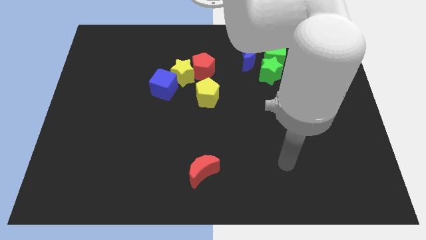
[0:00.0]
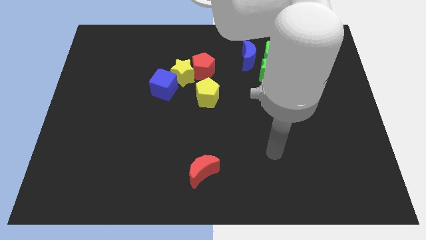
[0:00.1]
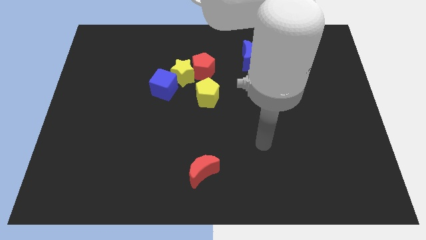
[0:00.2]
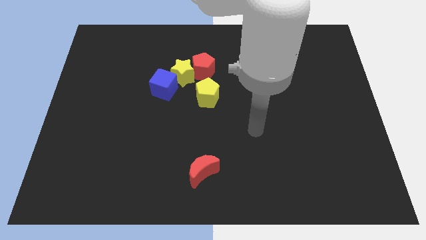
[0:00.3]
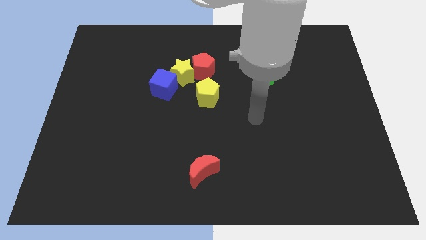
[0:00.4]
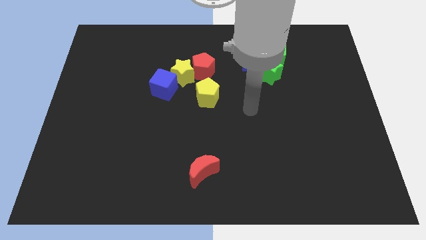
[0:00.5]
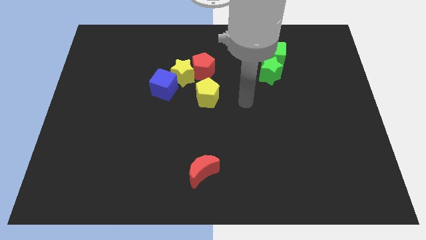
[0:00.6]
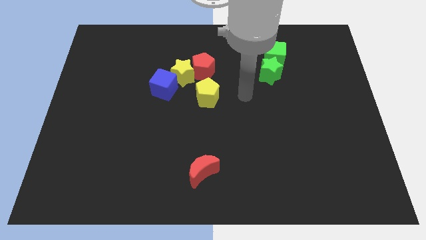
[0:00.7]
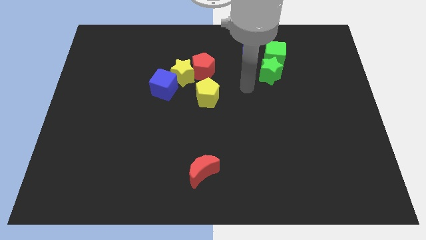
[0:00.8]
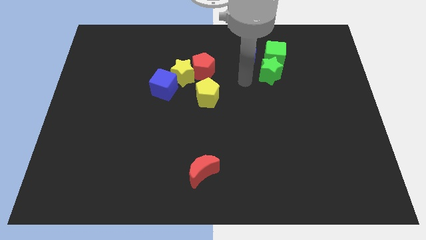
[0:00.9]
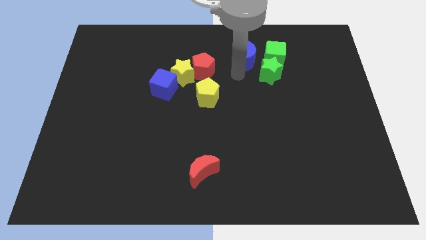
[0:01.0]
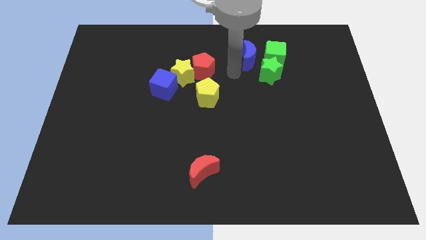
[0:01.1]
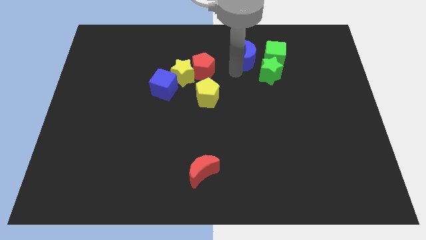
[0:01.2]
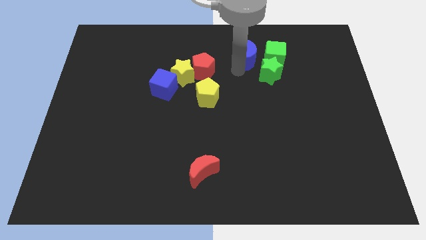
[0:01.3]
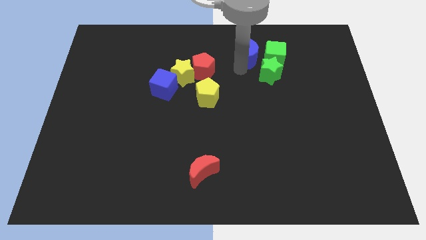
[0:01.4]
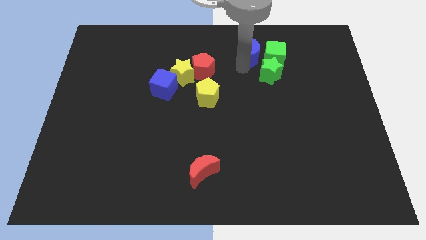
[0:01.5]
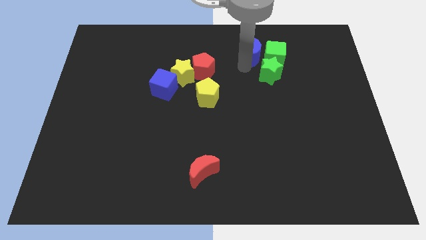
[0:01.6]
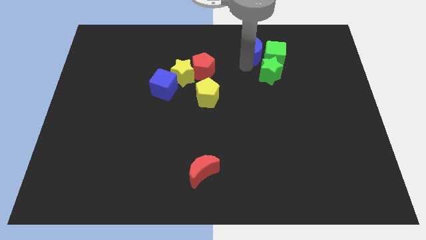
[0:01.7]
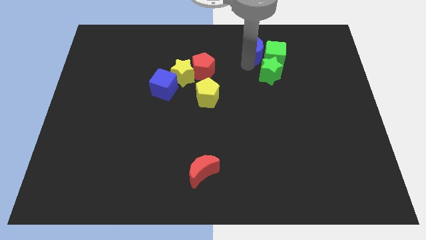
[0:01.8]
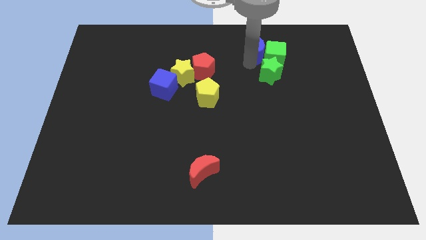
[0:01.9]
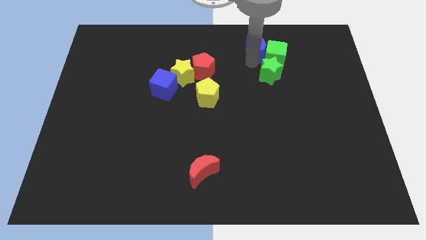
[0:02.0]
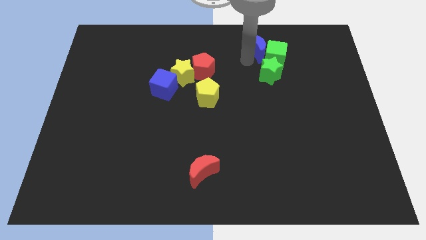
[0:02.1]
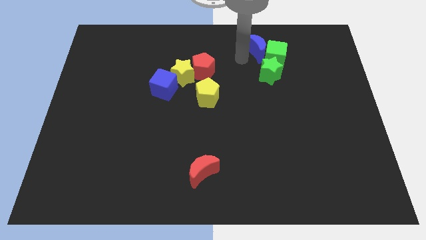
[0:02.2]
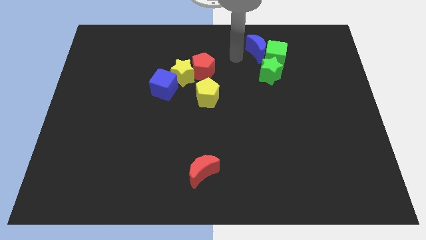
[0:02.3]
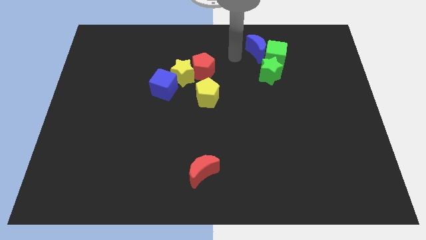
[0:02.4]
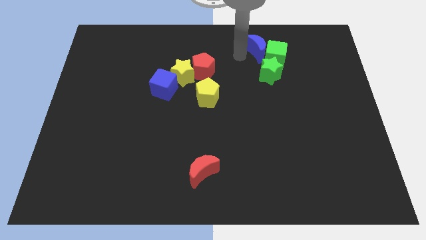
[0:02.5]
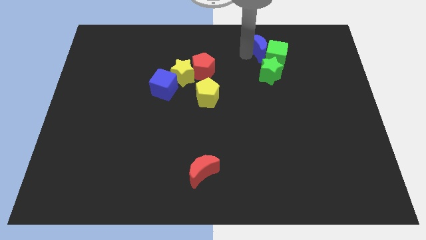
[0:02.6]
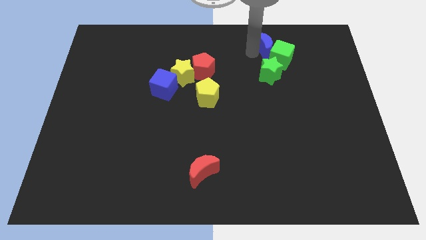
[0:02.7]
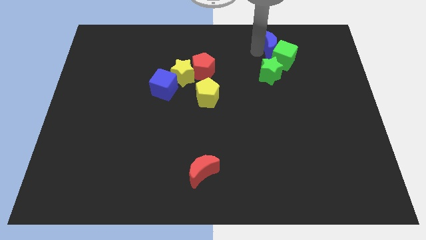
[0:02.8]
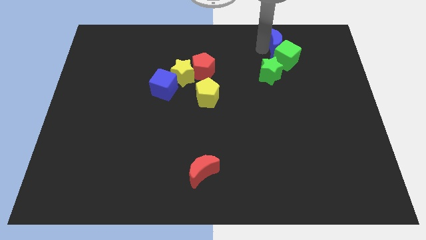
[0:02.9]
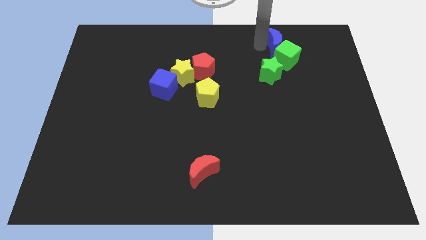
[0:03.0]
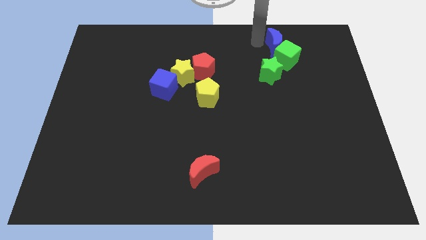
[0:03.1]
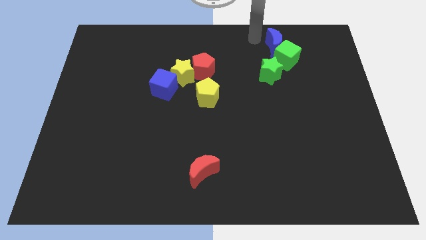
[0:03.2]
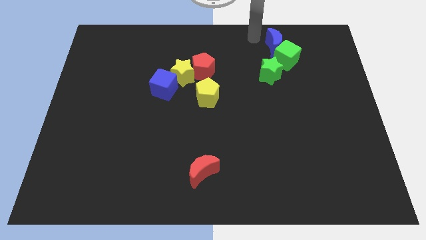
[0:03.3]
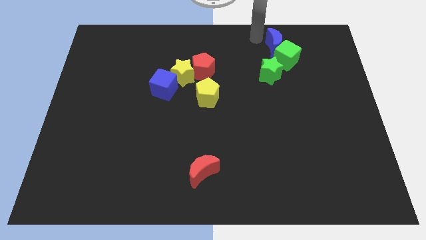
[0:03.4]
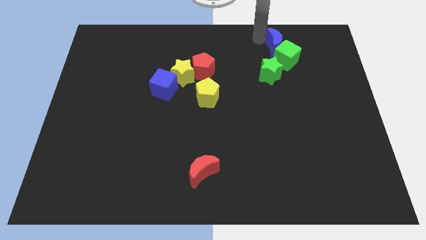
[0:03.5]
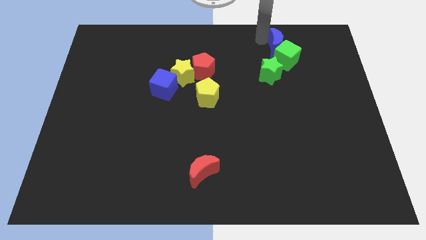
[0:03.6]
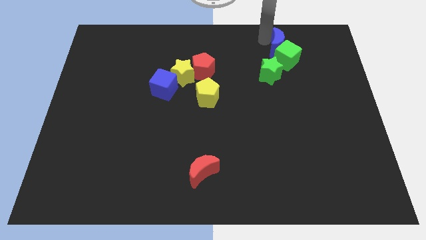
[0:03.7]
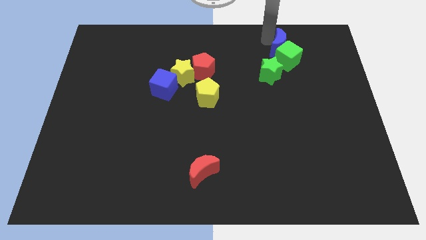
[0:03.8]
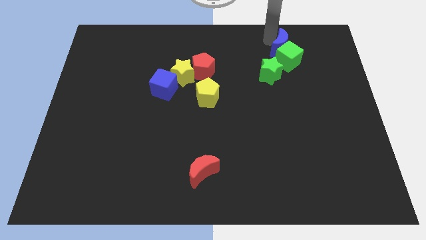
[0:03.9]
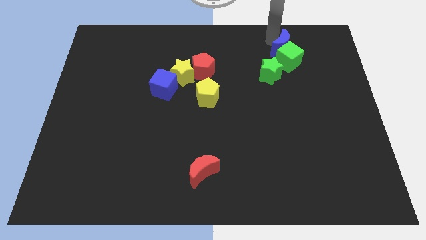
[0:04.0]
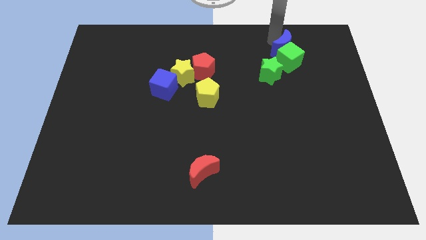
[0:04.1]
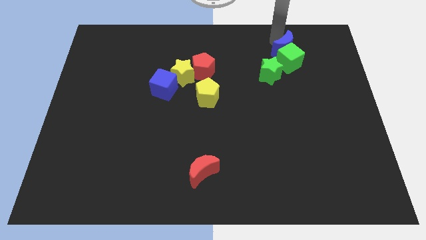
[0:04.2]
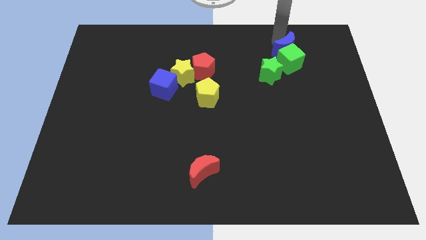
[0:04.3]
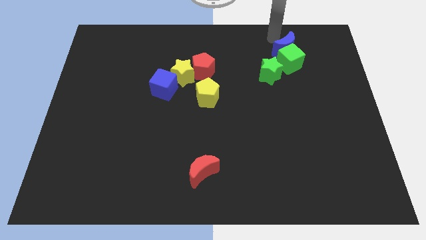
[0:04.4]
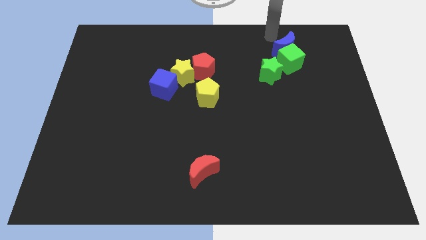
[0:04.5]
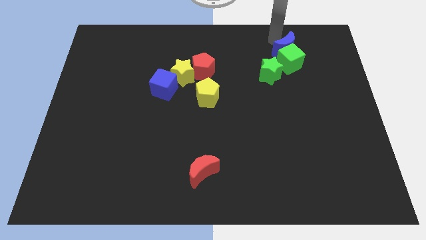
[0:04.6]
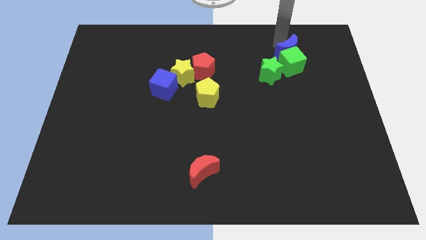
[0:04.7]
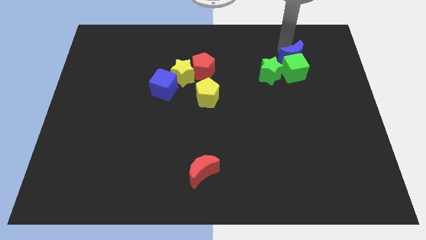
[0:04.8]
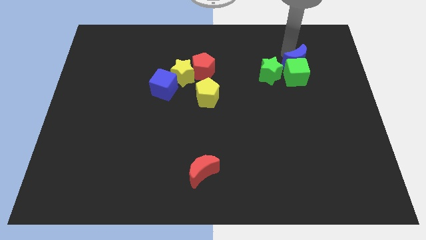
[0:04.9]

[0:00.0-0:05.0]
slide the blue moon to the right of the green star

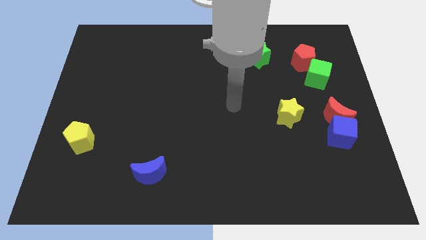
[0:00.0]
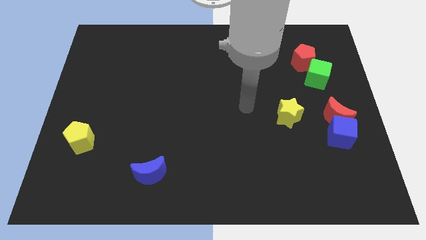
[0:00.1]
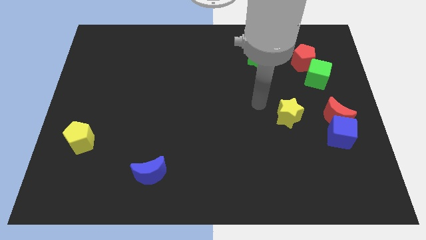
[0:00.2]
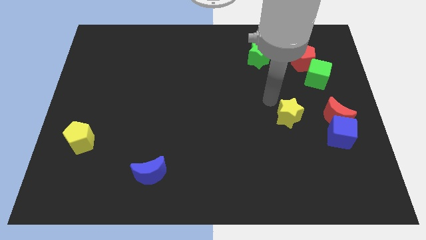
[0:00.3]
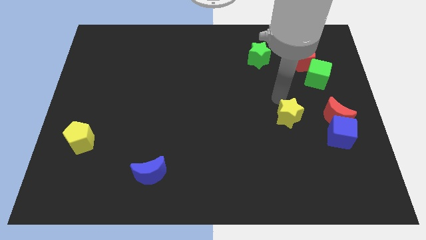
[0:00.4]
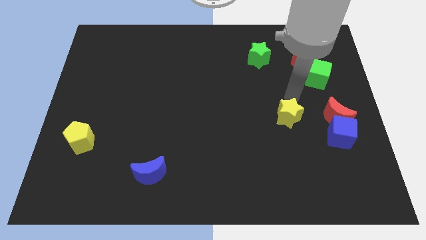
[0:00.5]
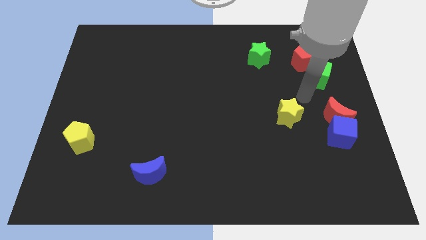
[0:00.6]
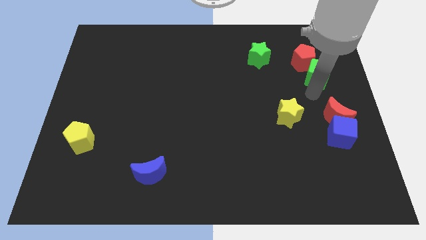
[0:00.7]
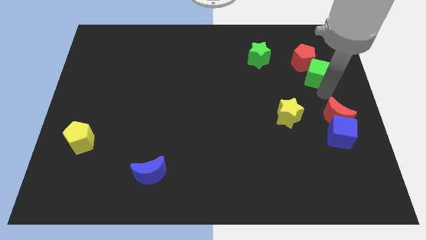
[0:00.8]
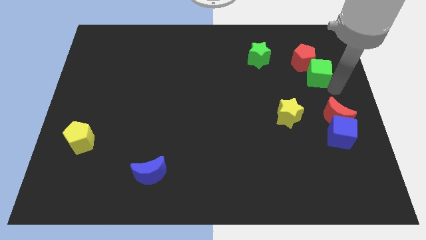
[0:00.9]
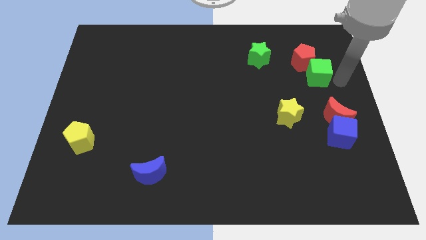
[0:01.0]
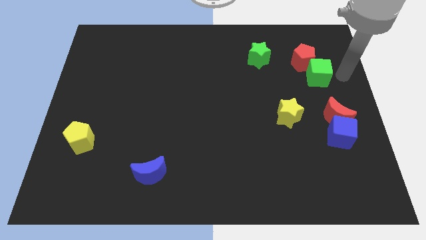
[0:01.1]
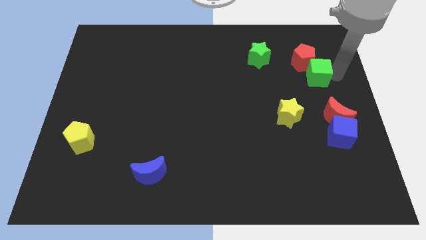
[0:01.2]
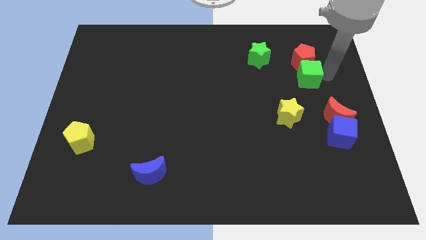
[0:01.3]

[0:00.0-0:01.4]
slide the green cube to the bottom left side of the red pentagon
